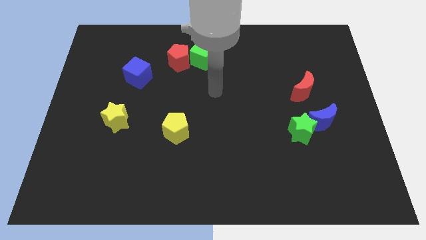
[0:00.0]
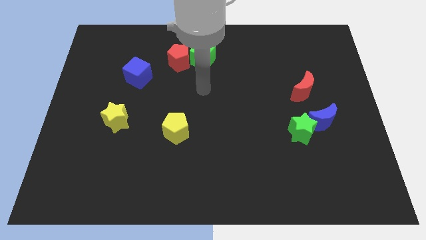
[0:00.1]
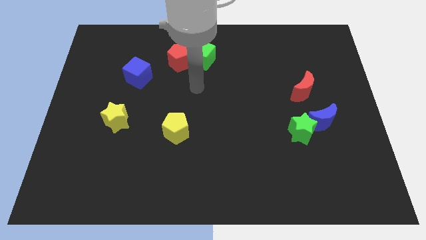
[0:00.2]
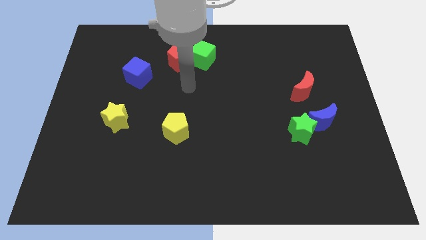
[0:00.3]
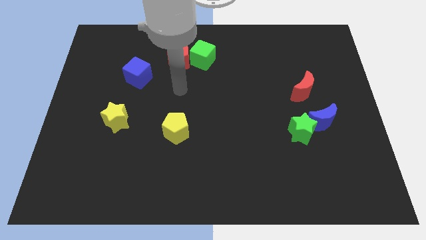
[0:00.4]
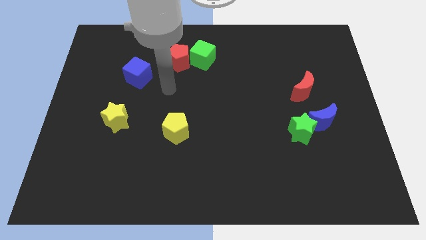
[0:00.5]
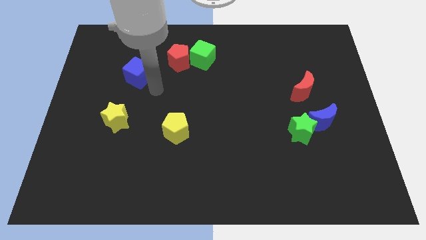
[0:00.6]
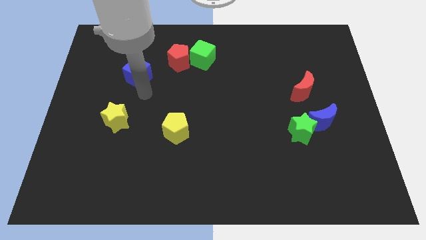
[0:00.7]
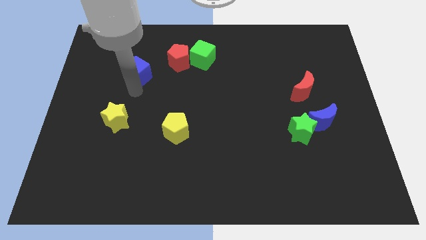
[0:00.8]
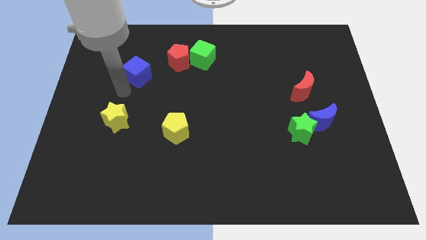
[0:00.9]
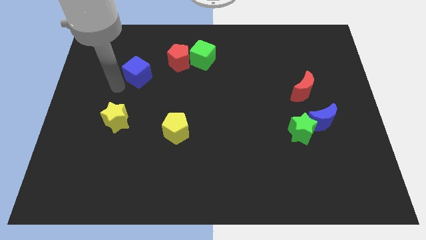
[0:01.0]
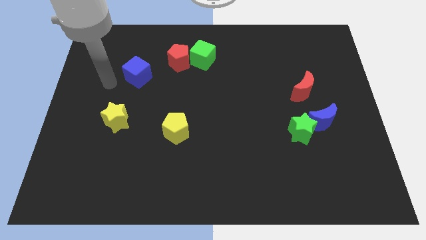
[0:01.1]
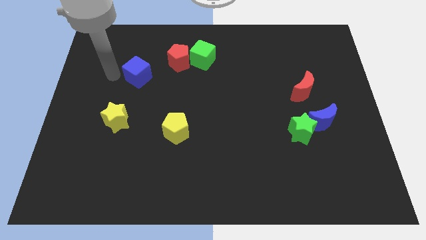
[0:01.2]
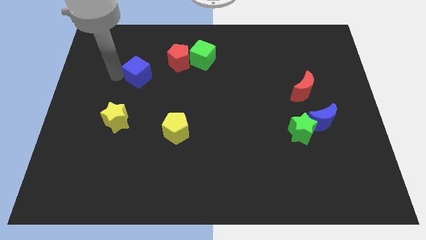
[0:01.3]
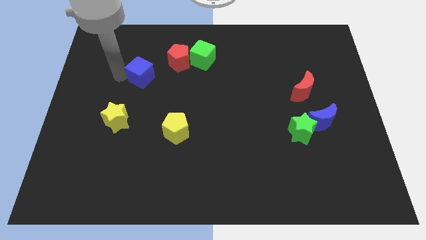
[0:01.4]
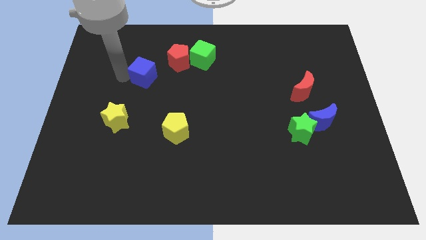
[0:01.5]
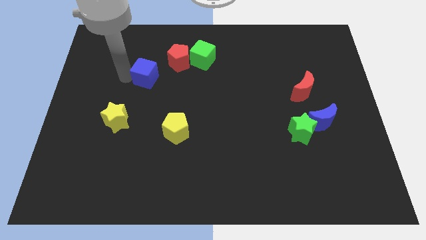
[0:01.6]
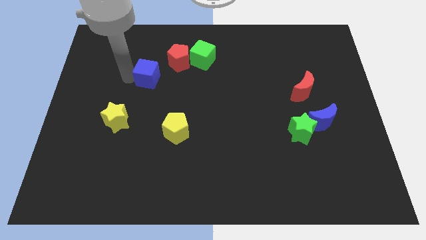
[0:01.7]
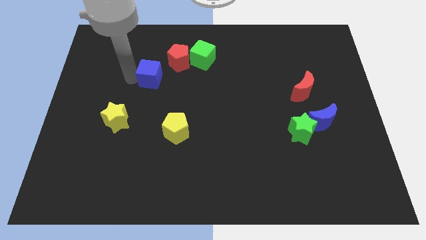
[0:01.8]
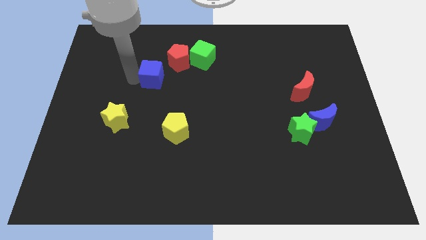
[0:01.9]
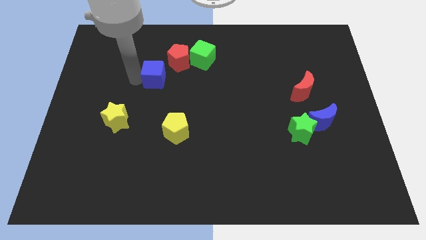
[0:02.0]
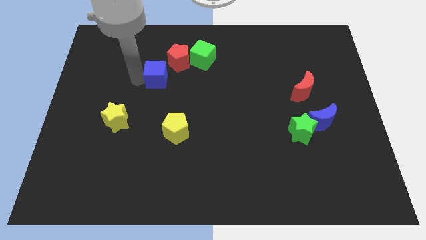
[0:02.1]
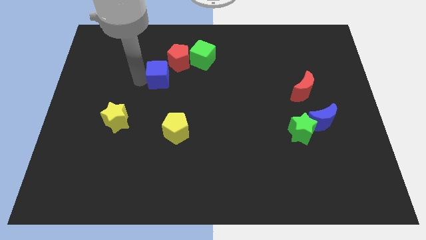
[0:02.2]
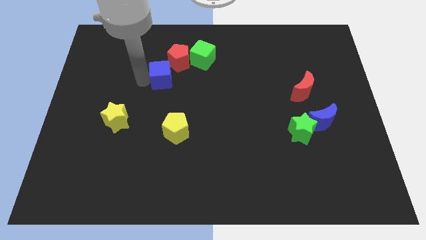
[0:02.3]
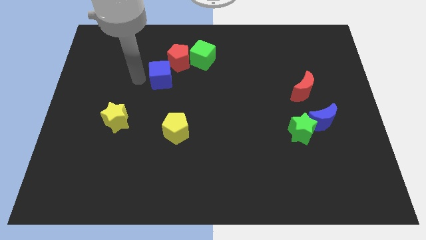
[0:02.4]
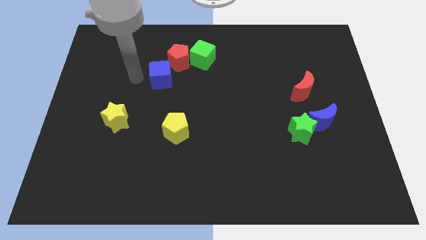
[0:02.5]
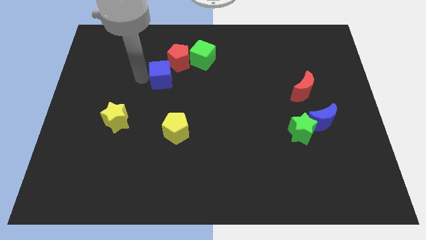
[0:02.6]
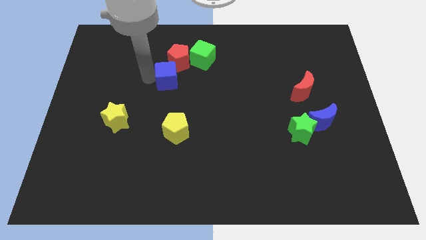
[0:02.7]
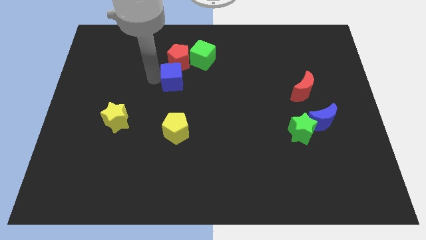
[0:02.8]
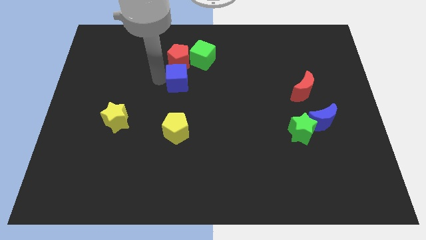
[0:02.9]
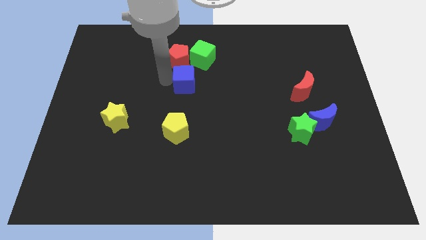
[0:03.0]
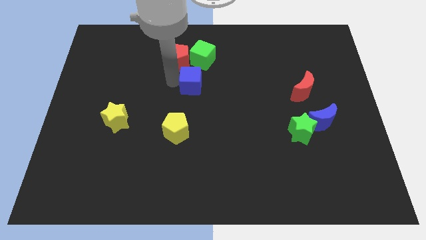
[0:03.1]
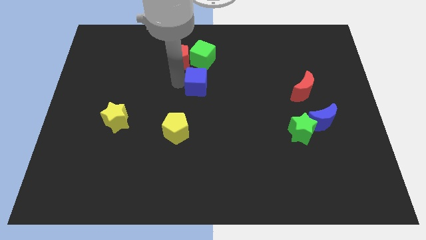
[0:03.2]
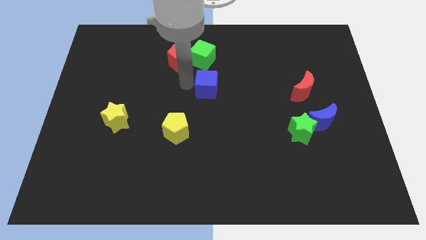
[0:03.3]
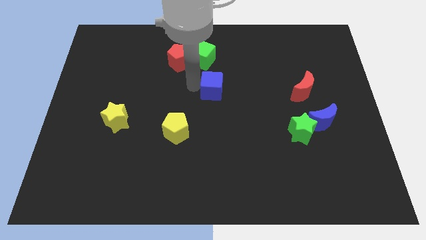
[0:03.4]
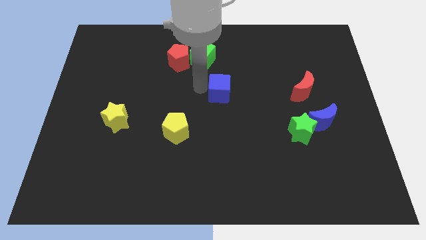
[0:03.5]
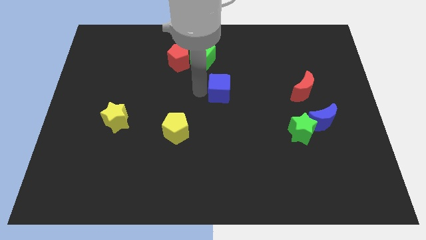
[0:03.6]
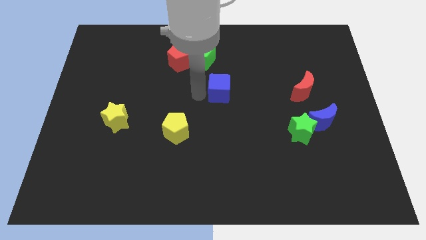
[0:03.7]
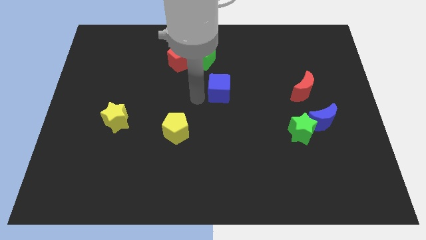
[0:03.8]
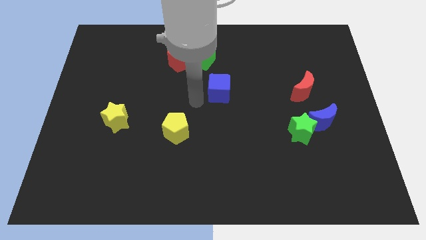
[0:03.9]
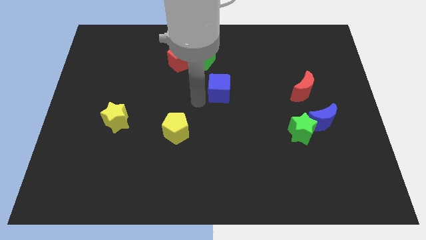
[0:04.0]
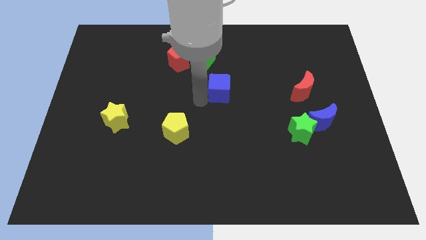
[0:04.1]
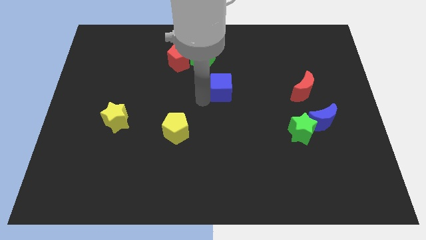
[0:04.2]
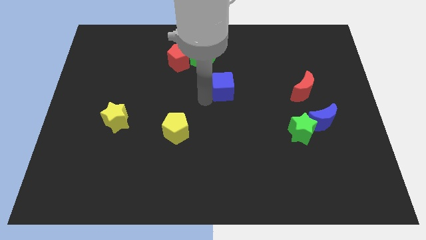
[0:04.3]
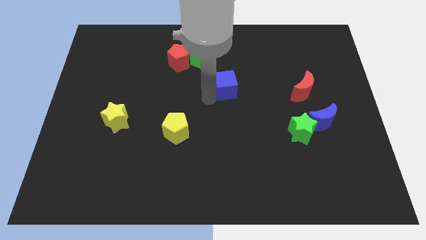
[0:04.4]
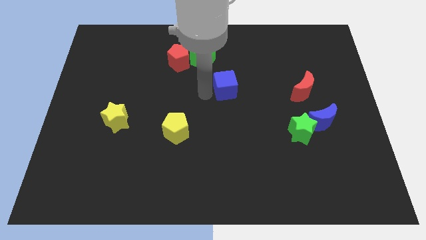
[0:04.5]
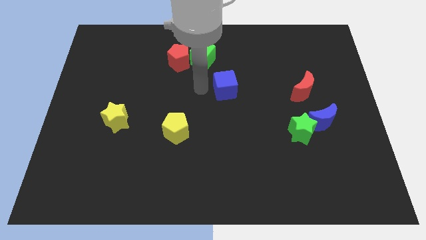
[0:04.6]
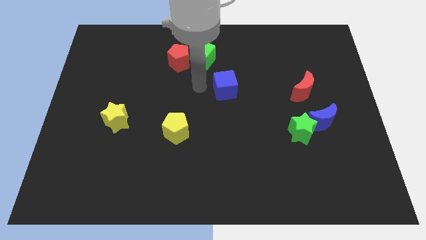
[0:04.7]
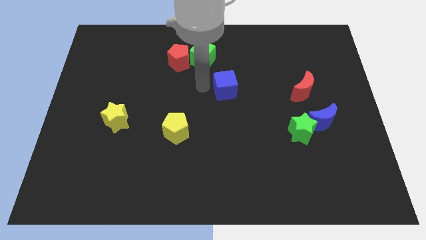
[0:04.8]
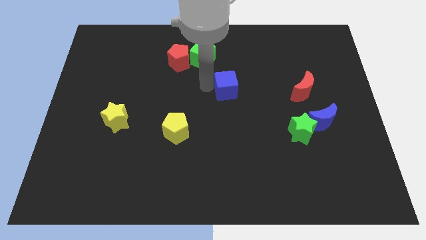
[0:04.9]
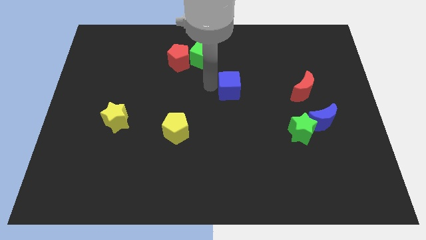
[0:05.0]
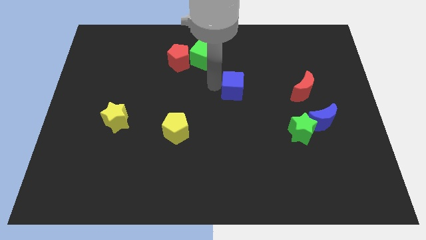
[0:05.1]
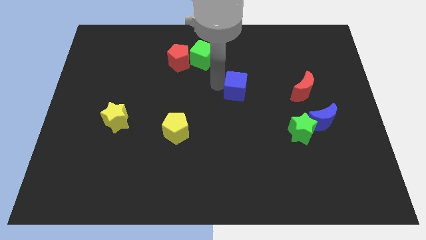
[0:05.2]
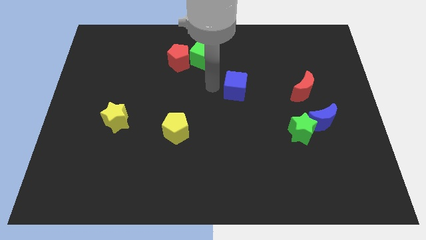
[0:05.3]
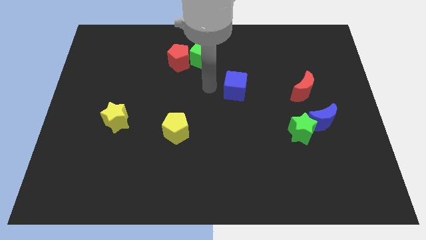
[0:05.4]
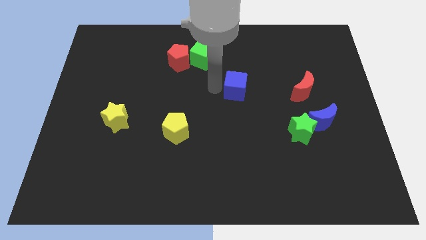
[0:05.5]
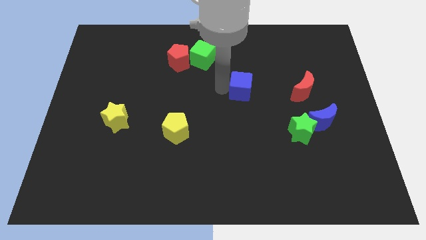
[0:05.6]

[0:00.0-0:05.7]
slide the blue cube to the left side of the red moon

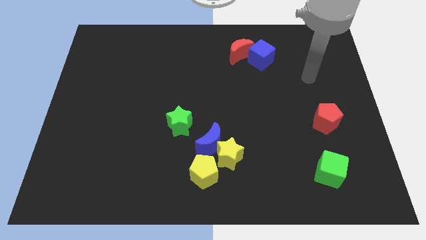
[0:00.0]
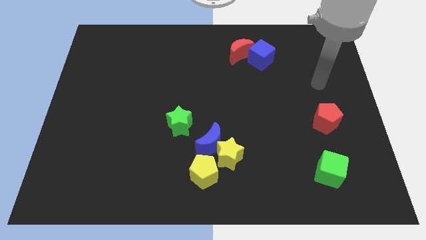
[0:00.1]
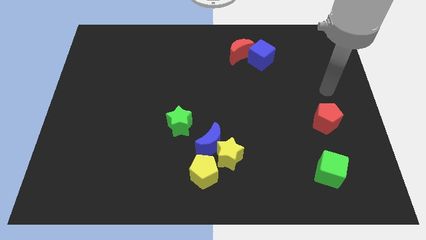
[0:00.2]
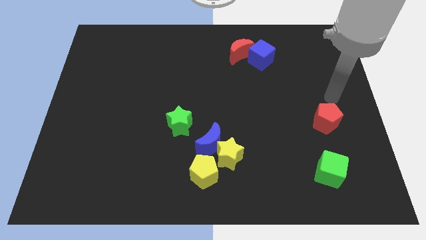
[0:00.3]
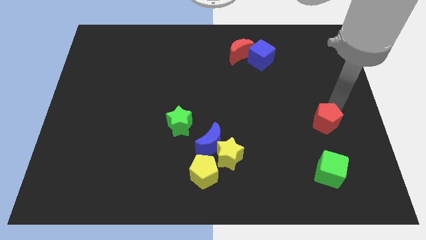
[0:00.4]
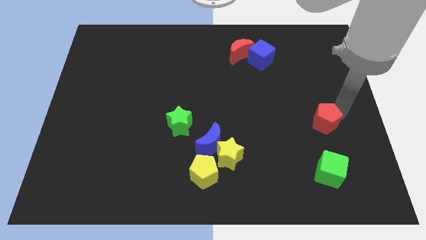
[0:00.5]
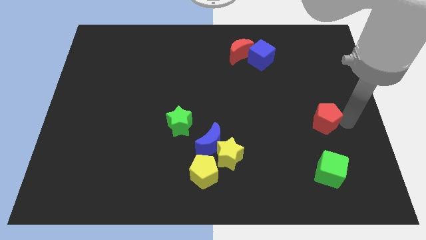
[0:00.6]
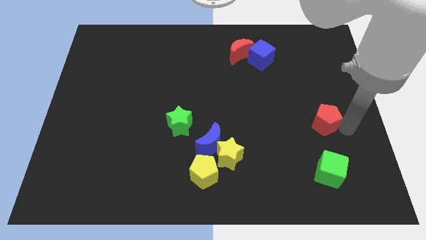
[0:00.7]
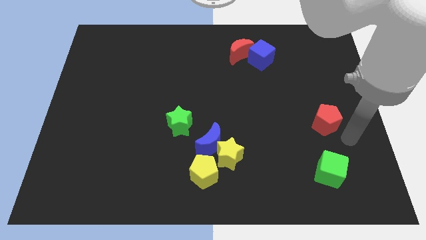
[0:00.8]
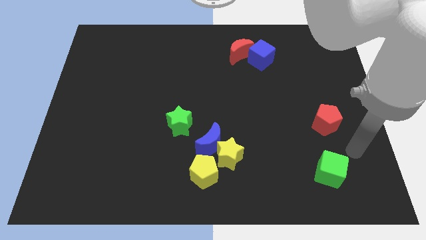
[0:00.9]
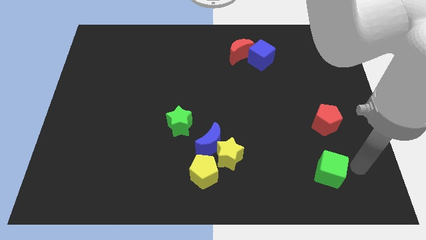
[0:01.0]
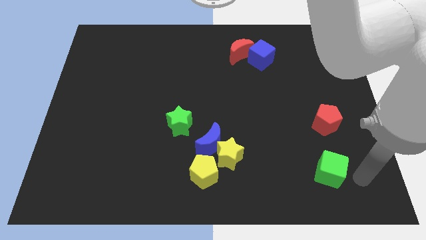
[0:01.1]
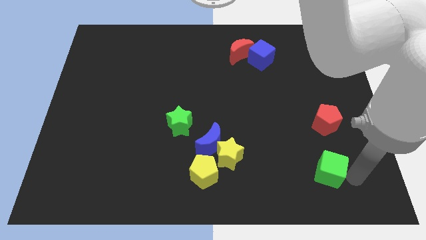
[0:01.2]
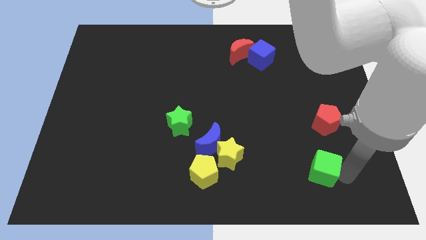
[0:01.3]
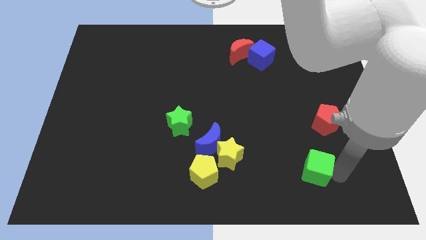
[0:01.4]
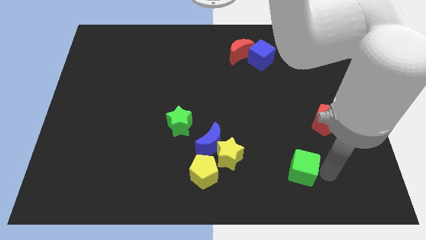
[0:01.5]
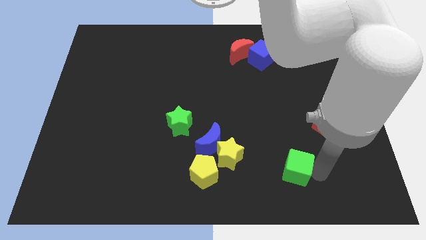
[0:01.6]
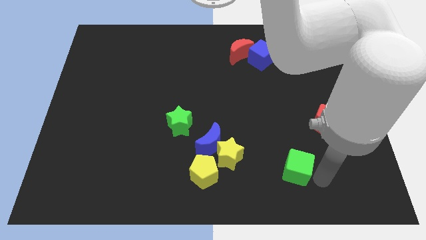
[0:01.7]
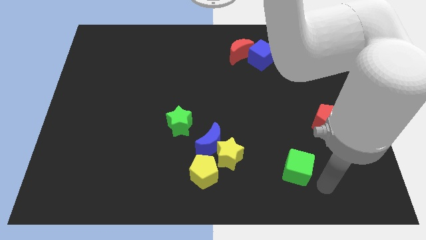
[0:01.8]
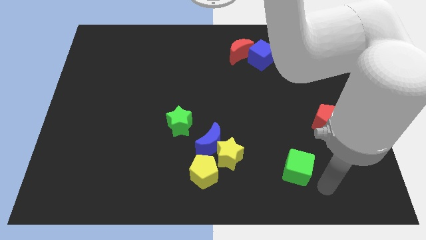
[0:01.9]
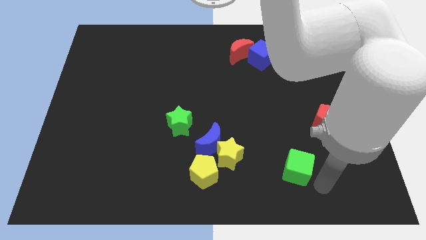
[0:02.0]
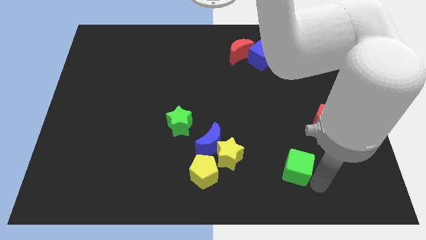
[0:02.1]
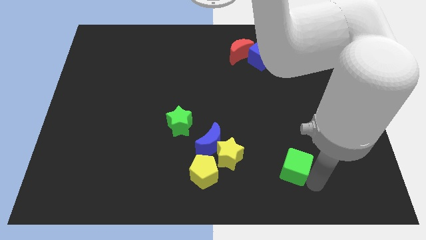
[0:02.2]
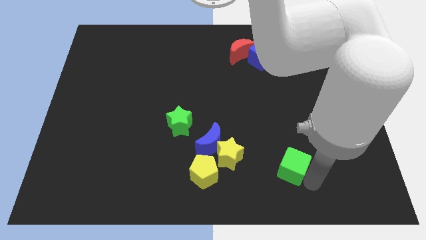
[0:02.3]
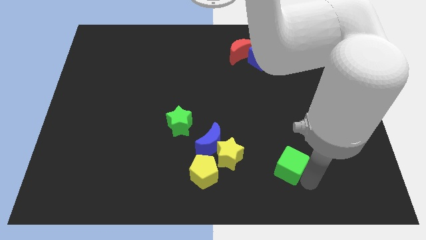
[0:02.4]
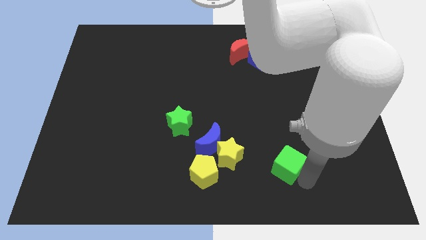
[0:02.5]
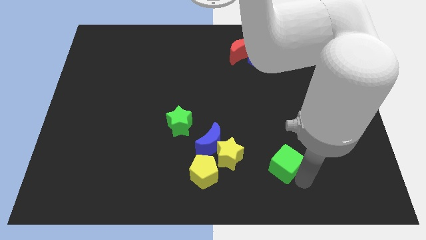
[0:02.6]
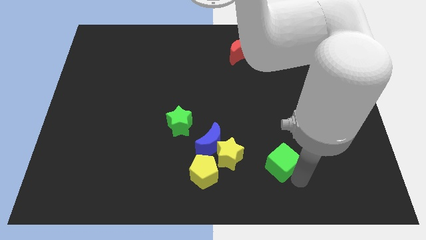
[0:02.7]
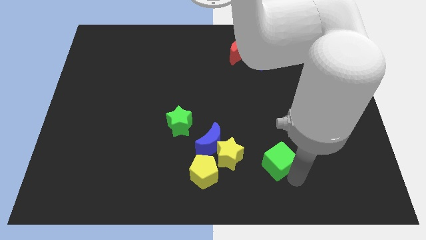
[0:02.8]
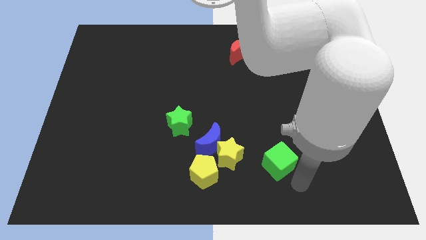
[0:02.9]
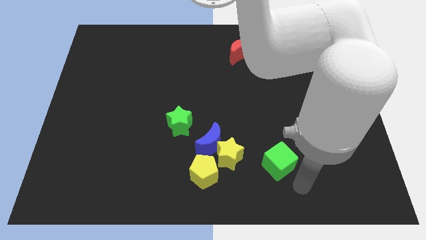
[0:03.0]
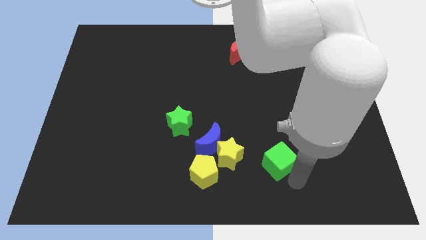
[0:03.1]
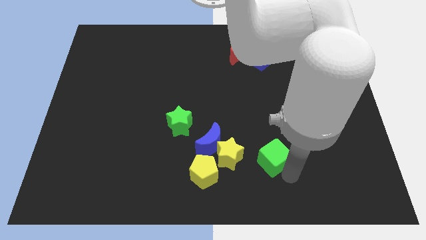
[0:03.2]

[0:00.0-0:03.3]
slide the green cube to the right side of the blue moon
